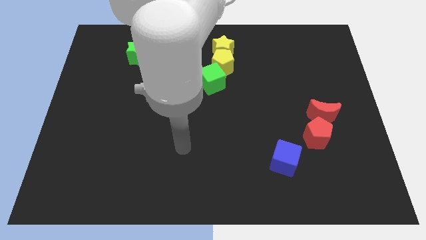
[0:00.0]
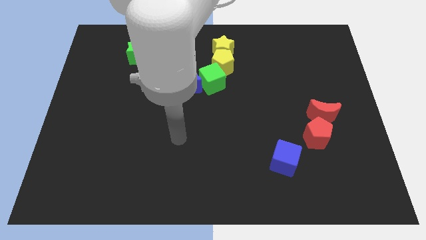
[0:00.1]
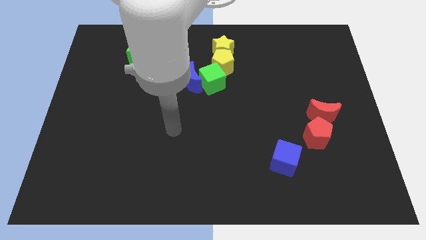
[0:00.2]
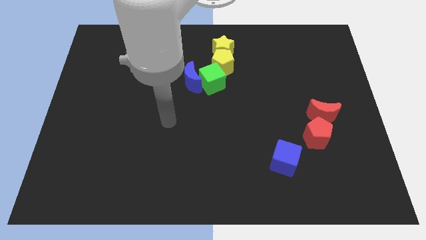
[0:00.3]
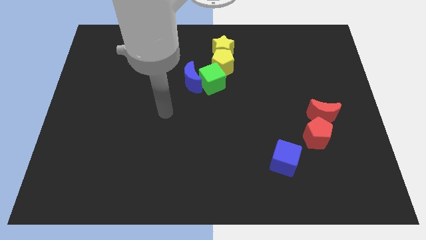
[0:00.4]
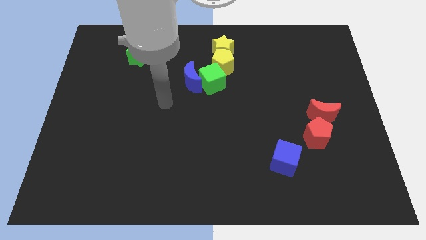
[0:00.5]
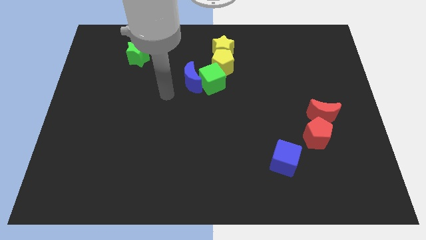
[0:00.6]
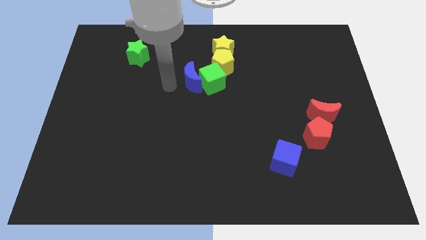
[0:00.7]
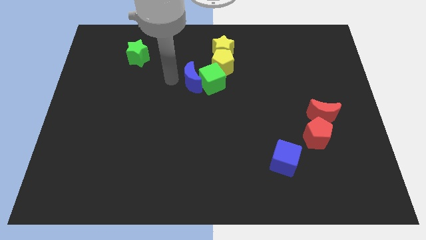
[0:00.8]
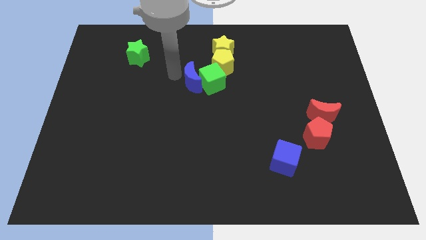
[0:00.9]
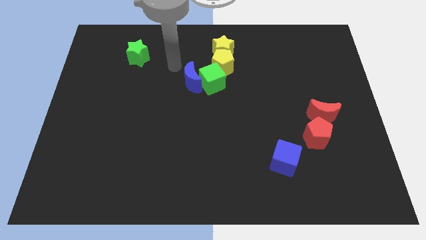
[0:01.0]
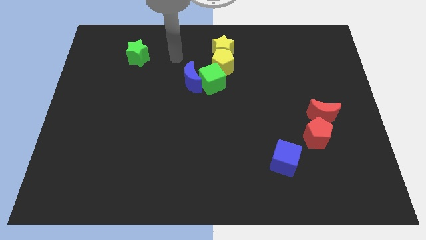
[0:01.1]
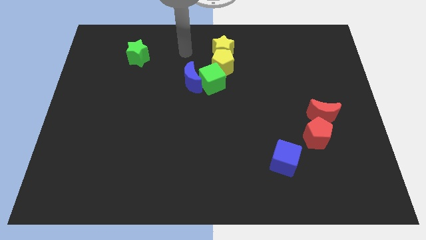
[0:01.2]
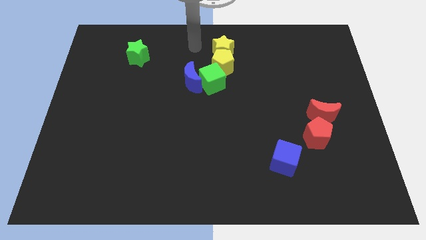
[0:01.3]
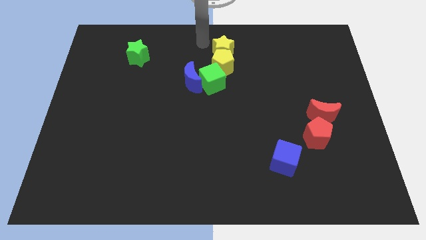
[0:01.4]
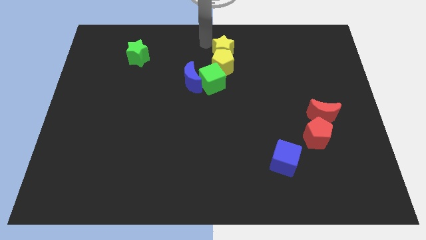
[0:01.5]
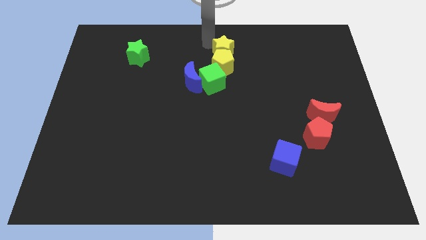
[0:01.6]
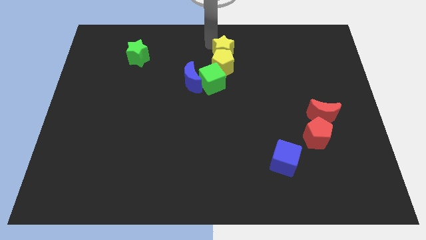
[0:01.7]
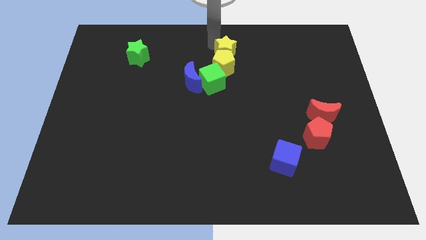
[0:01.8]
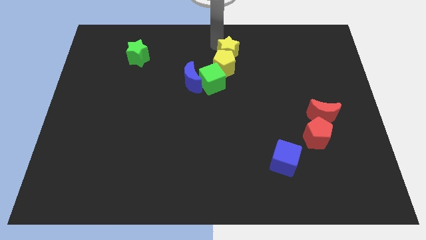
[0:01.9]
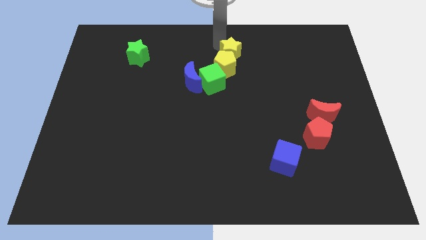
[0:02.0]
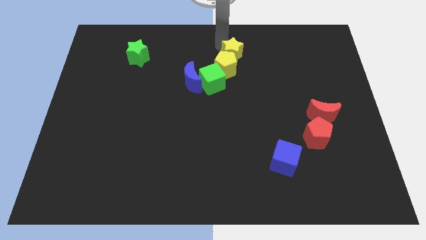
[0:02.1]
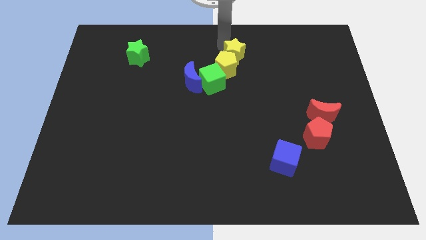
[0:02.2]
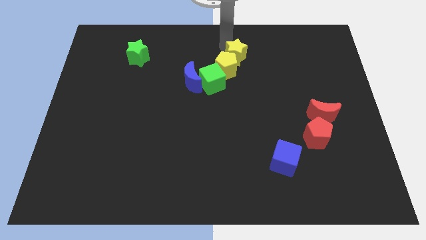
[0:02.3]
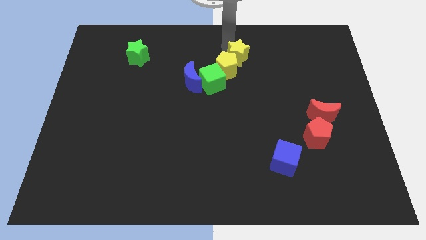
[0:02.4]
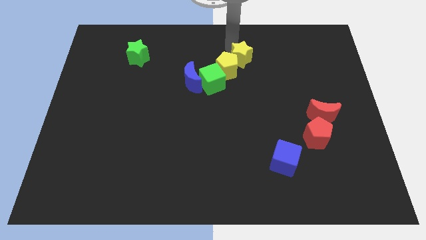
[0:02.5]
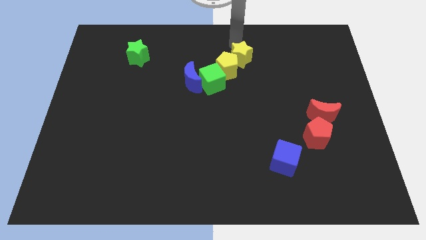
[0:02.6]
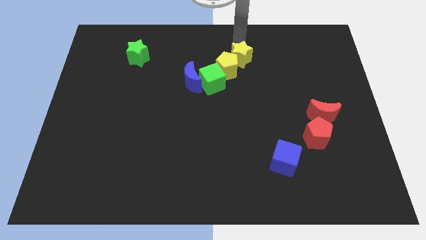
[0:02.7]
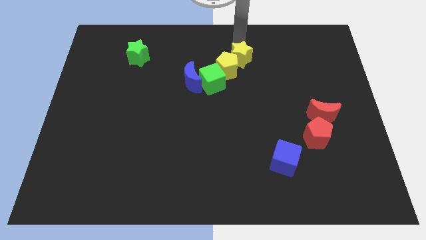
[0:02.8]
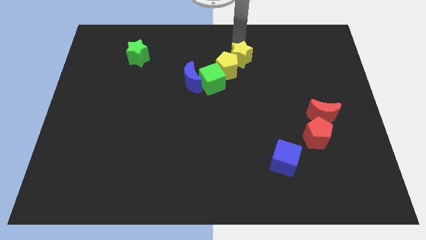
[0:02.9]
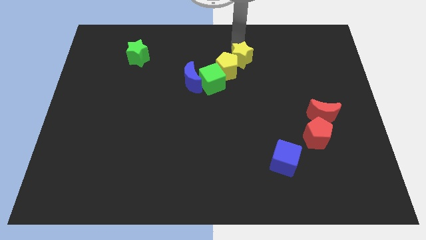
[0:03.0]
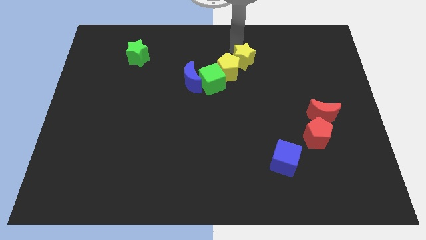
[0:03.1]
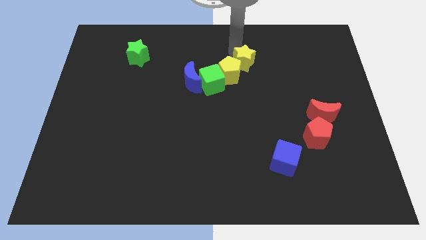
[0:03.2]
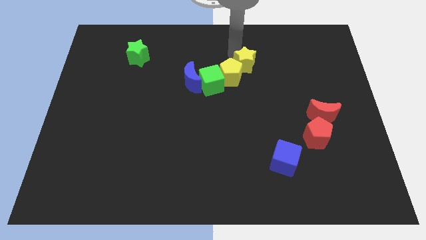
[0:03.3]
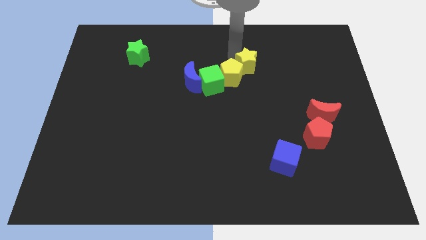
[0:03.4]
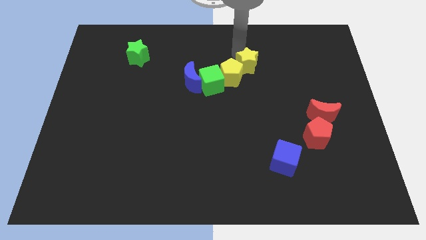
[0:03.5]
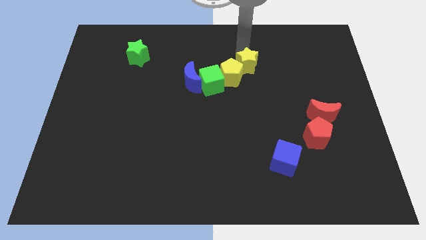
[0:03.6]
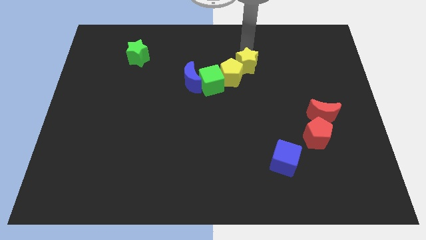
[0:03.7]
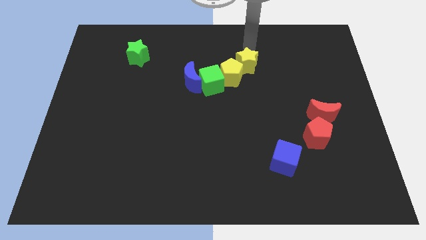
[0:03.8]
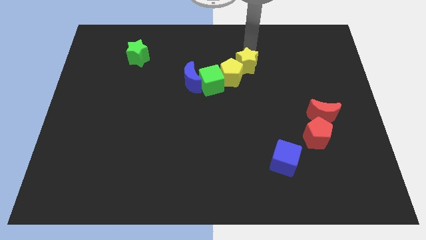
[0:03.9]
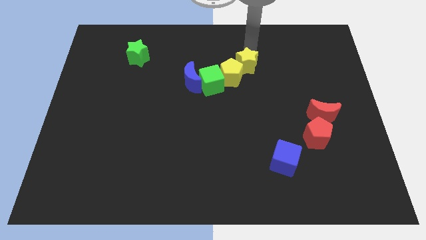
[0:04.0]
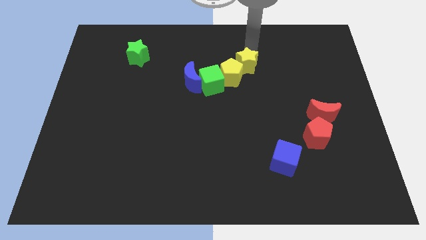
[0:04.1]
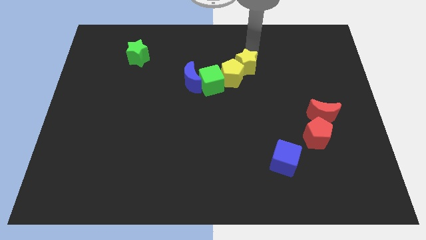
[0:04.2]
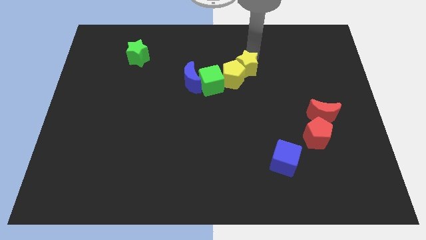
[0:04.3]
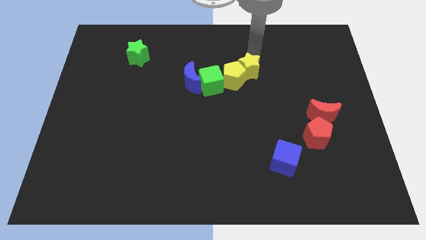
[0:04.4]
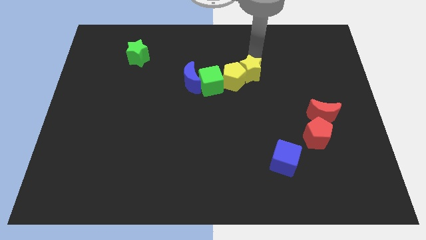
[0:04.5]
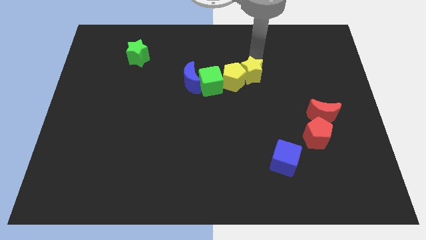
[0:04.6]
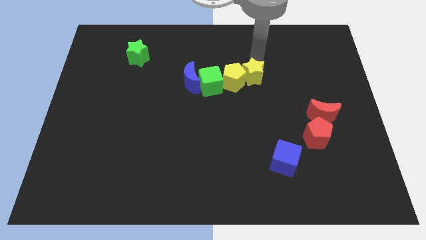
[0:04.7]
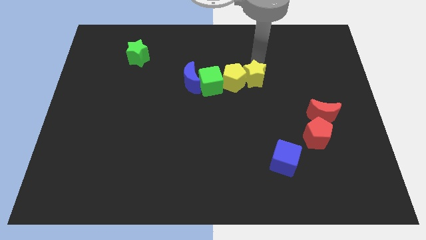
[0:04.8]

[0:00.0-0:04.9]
slide the yellow star a bit down

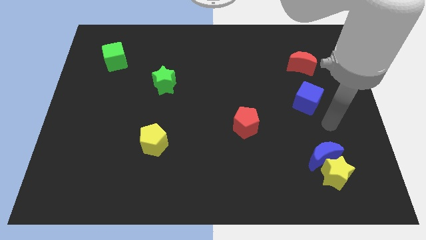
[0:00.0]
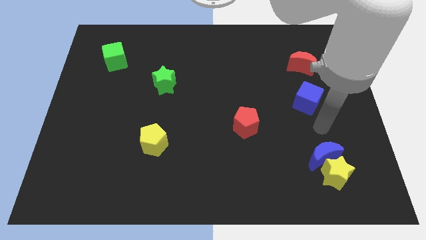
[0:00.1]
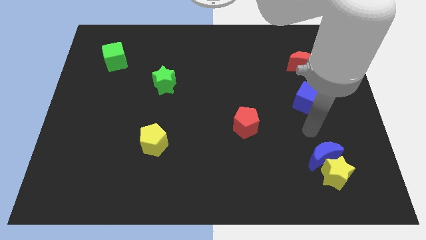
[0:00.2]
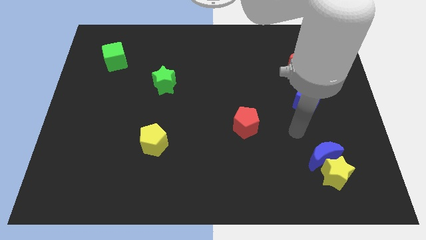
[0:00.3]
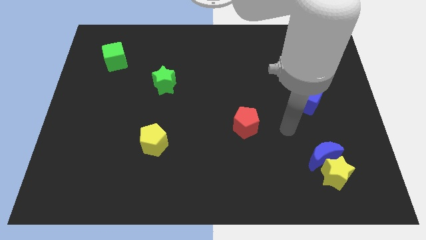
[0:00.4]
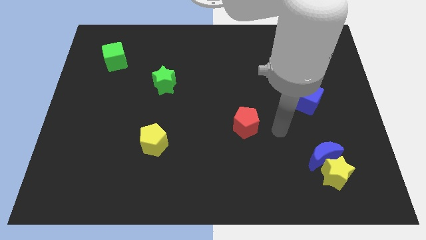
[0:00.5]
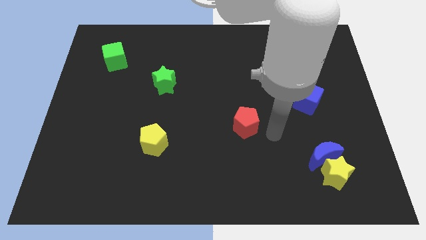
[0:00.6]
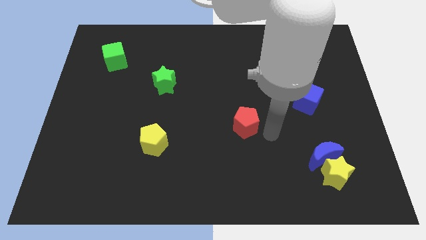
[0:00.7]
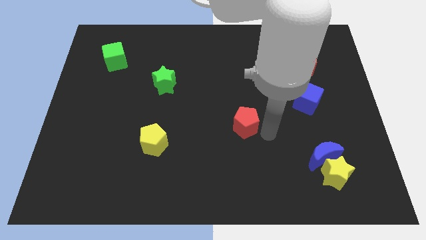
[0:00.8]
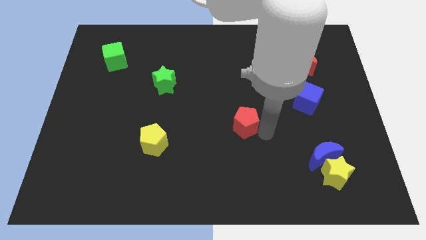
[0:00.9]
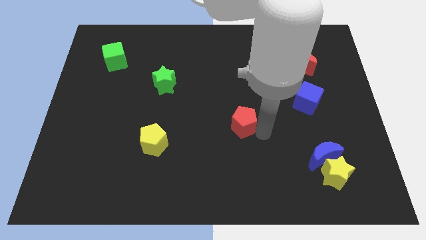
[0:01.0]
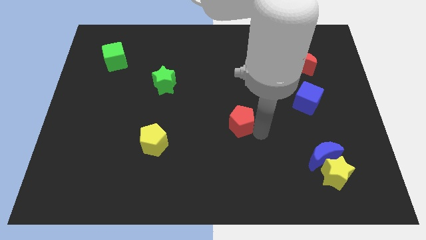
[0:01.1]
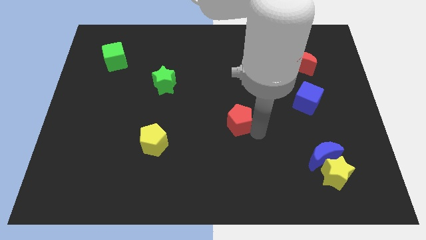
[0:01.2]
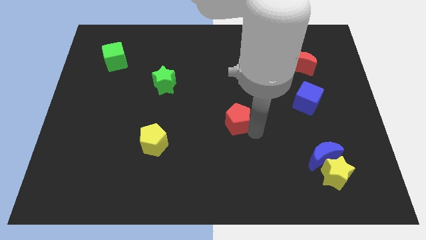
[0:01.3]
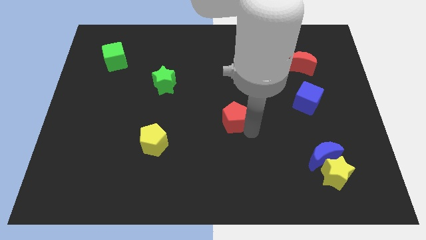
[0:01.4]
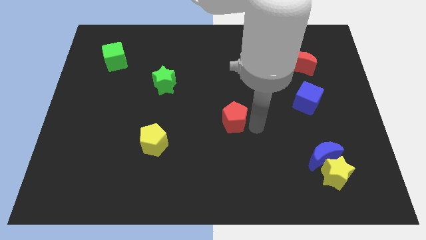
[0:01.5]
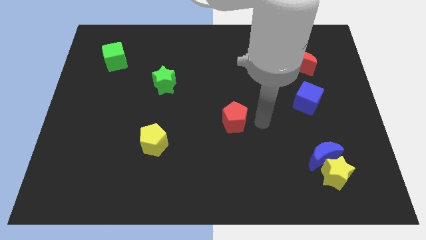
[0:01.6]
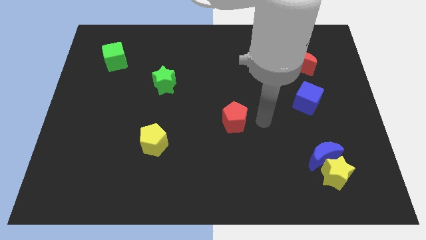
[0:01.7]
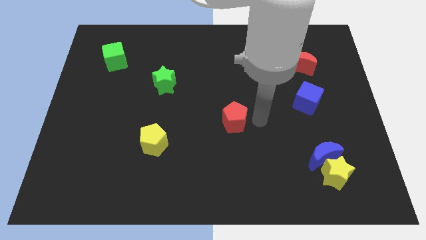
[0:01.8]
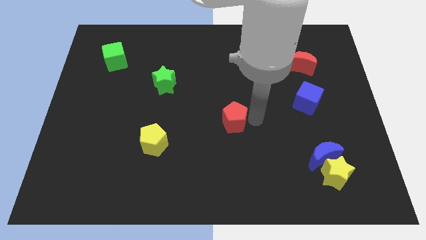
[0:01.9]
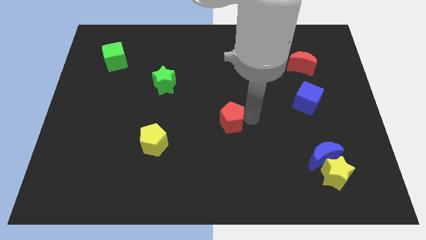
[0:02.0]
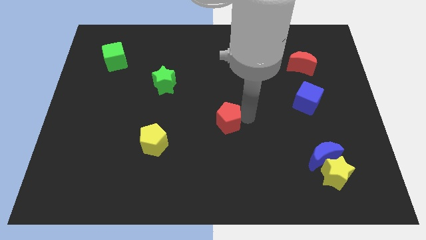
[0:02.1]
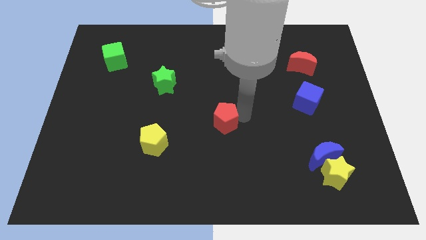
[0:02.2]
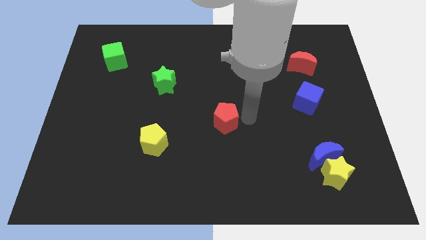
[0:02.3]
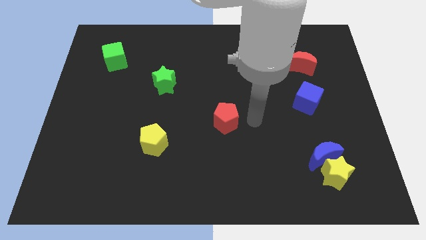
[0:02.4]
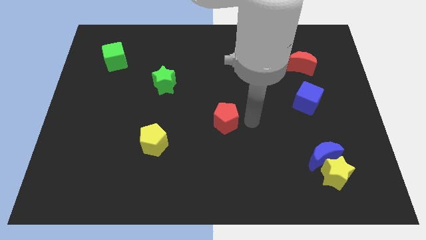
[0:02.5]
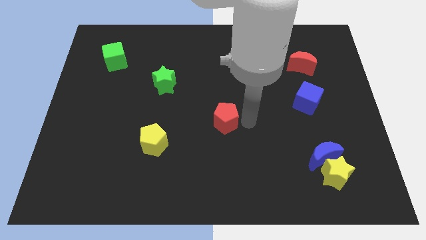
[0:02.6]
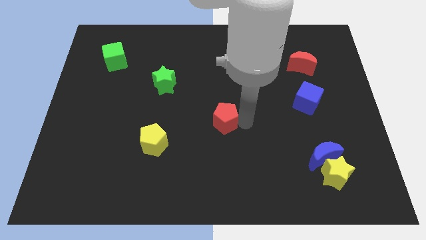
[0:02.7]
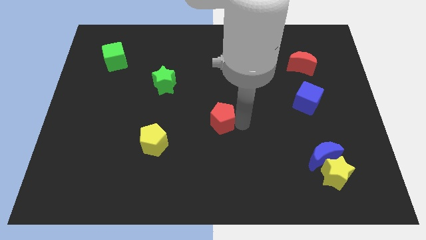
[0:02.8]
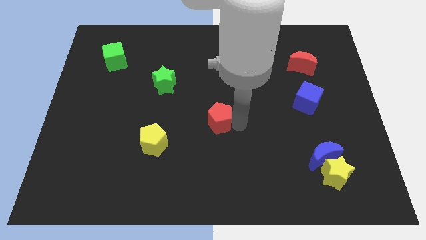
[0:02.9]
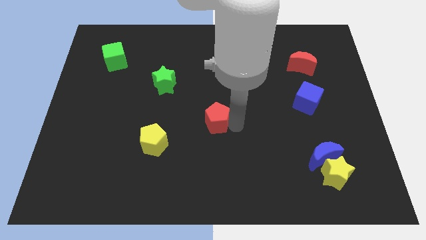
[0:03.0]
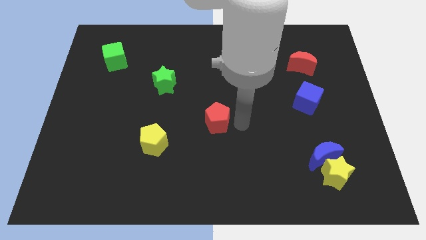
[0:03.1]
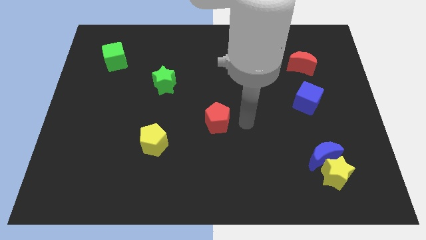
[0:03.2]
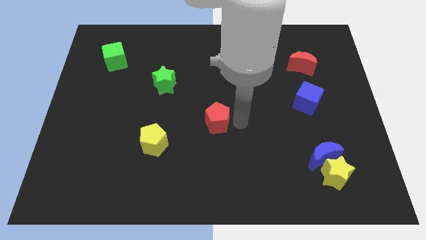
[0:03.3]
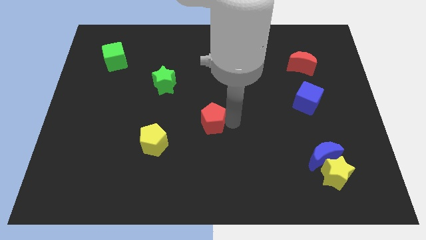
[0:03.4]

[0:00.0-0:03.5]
slightly slide the red pentagon to the left

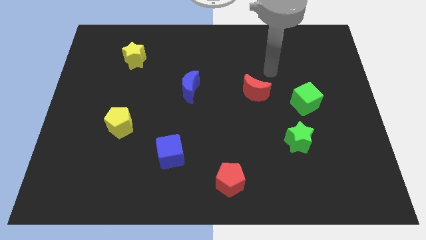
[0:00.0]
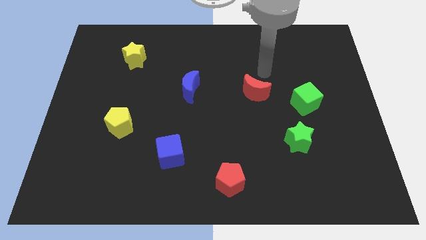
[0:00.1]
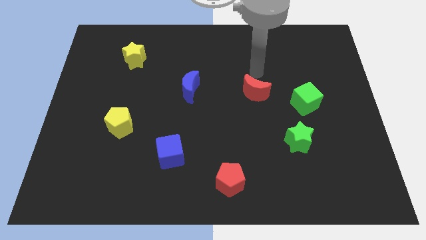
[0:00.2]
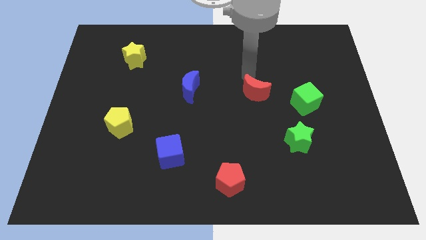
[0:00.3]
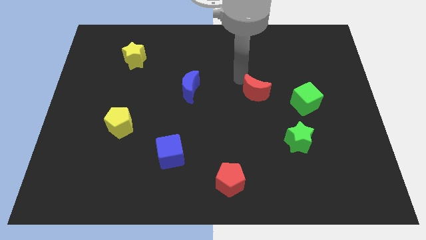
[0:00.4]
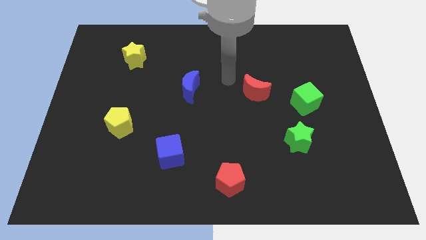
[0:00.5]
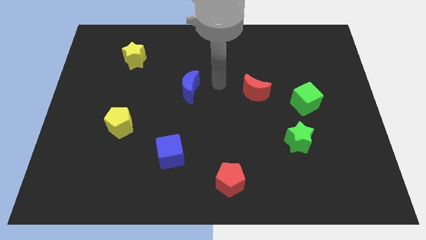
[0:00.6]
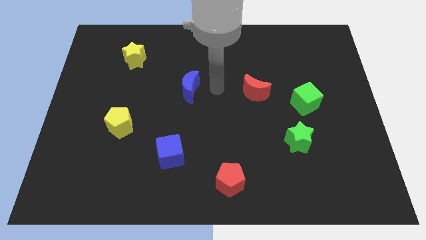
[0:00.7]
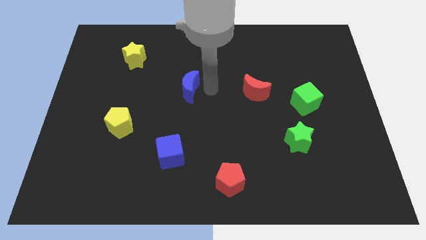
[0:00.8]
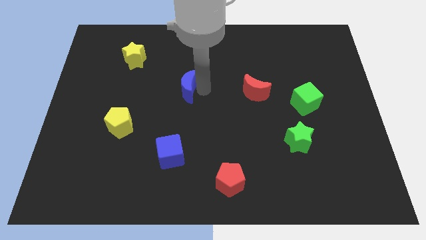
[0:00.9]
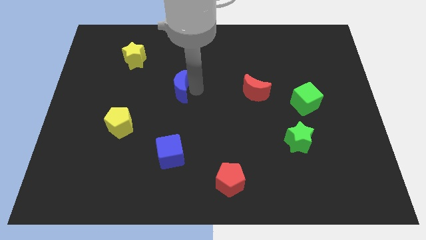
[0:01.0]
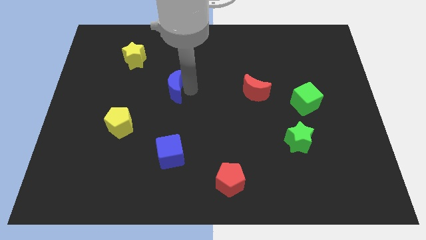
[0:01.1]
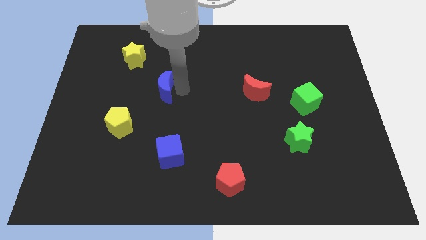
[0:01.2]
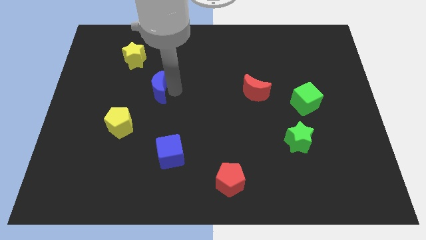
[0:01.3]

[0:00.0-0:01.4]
move the blue moon a little bit to the left
